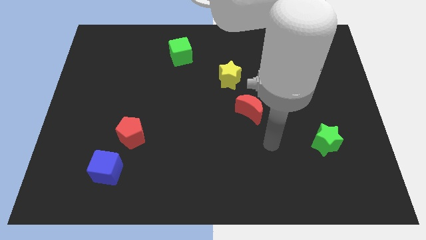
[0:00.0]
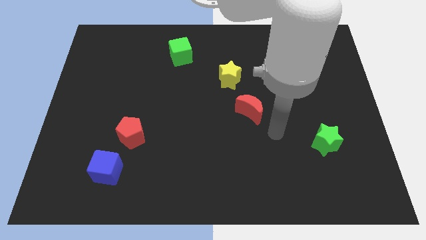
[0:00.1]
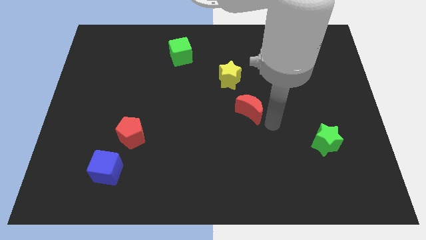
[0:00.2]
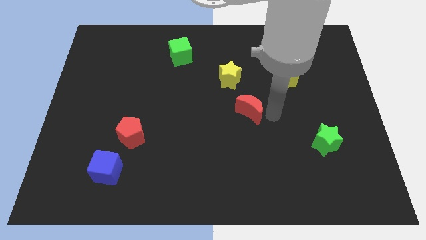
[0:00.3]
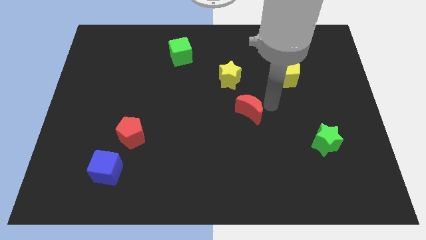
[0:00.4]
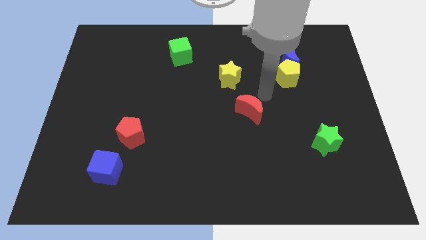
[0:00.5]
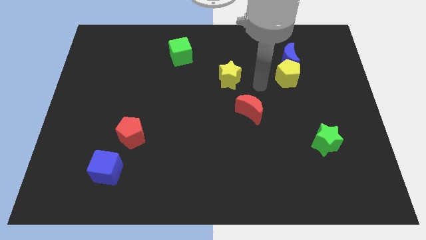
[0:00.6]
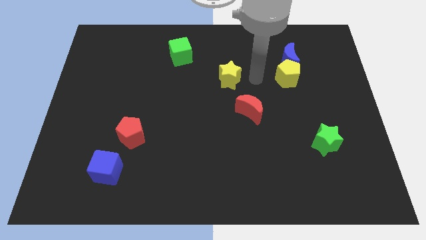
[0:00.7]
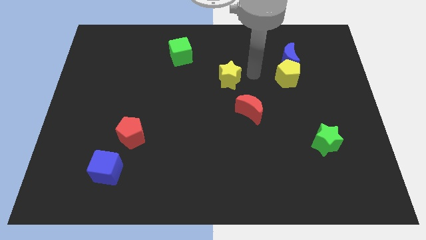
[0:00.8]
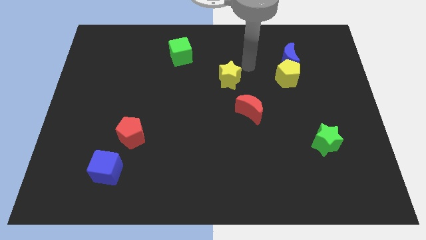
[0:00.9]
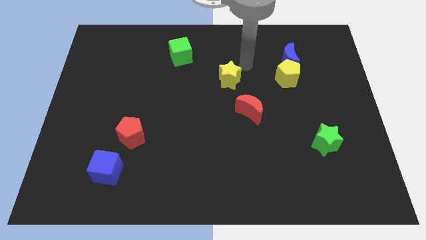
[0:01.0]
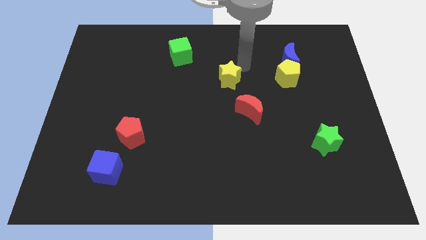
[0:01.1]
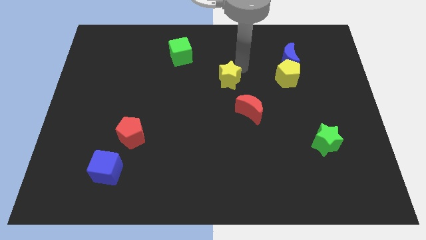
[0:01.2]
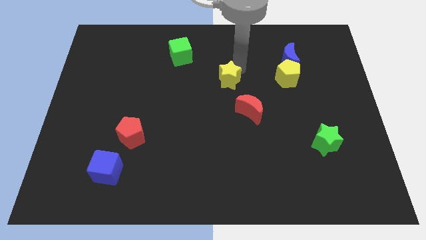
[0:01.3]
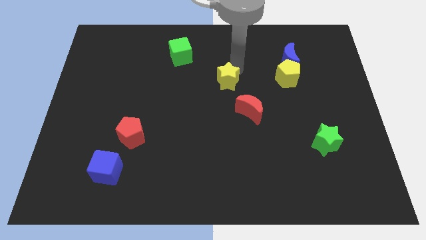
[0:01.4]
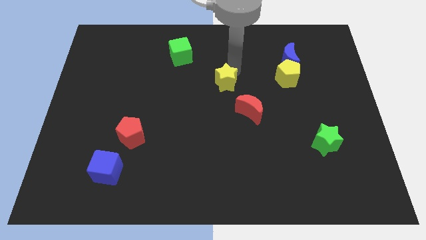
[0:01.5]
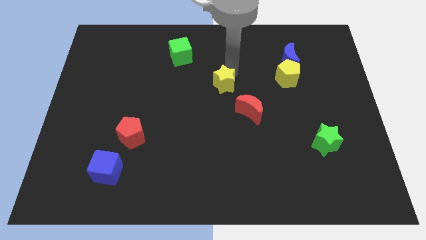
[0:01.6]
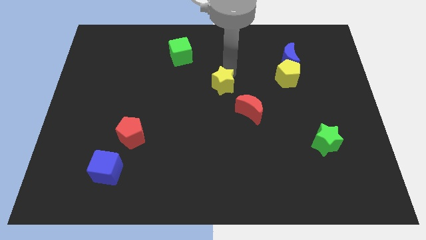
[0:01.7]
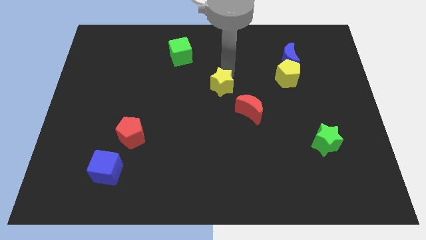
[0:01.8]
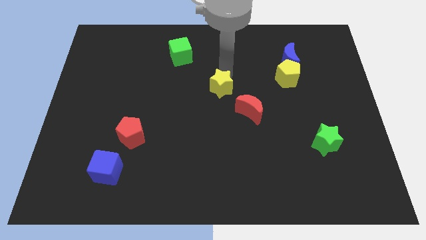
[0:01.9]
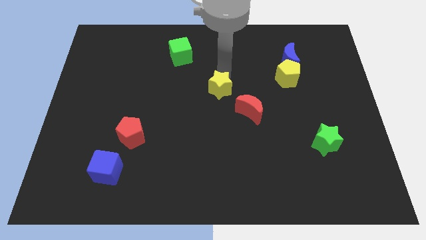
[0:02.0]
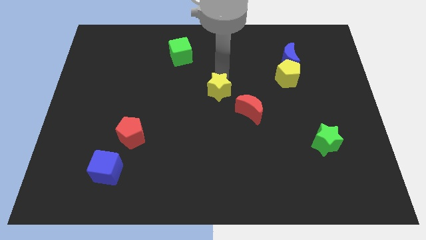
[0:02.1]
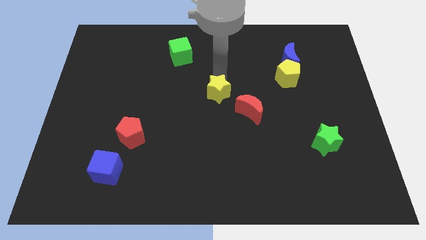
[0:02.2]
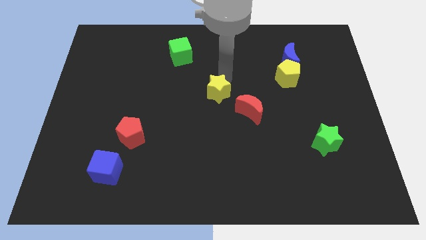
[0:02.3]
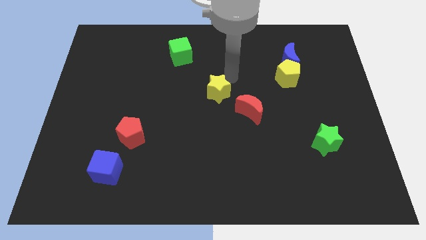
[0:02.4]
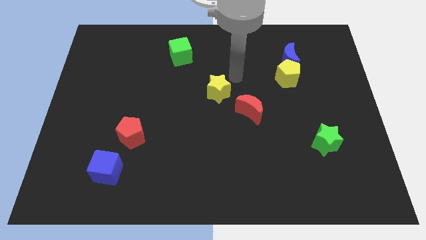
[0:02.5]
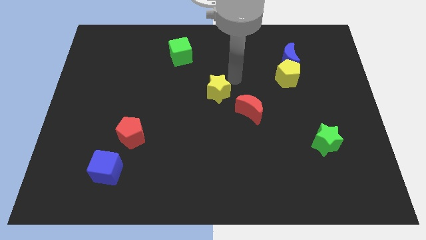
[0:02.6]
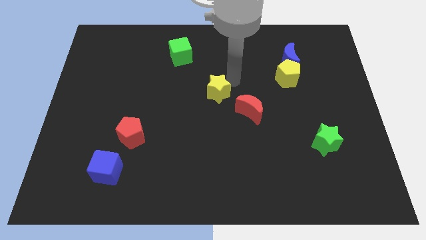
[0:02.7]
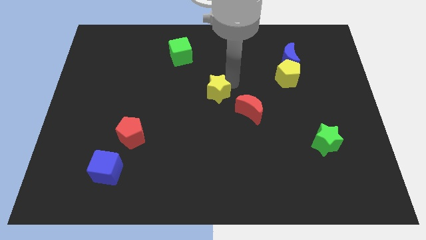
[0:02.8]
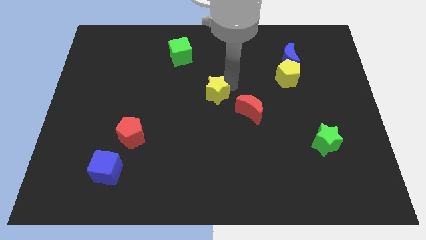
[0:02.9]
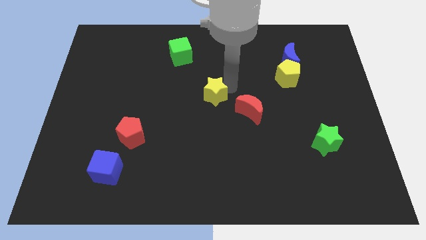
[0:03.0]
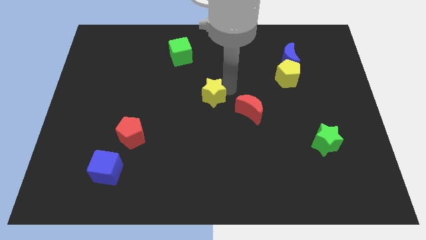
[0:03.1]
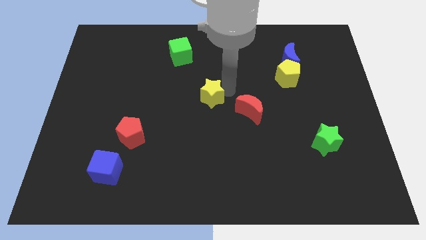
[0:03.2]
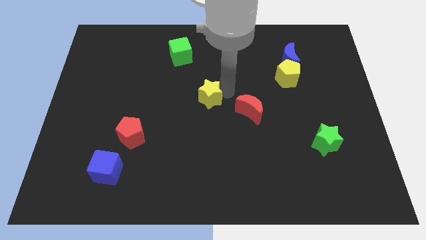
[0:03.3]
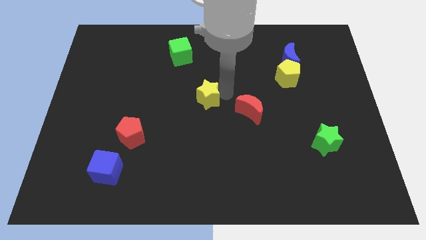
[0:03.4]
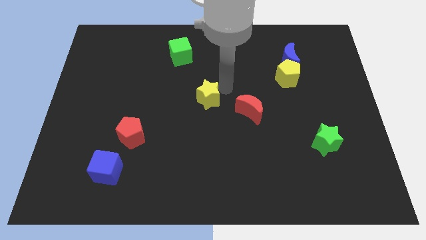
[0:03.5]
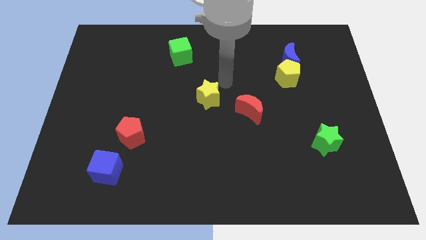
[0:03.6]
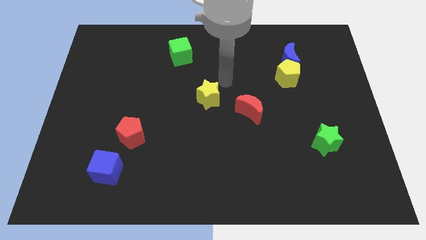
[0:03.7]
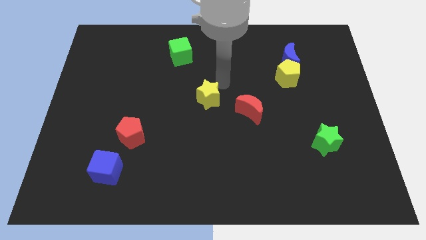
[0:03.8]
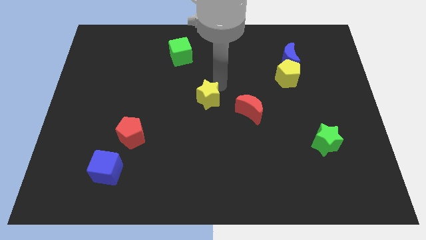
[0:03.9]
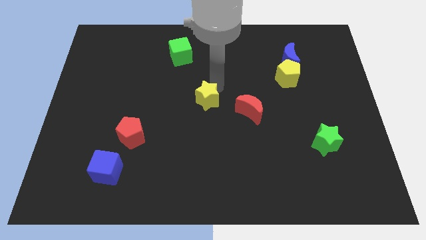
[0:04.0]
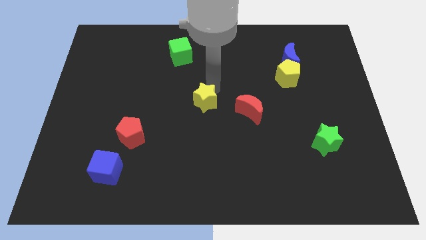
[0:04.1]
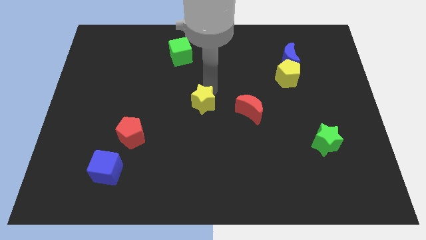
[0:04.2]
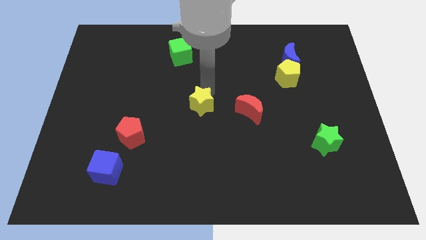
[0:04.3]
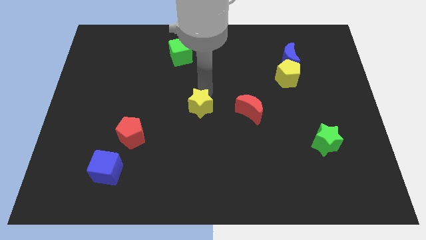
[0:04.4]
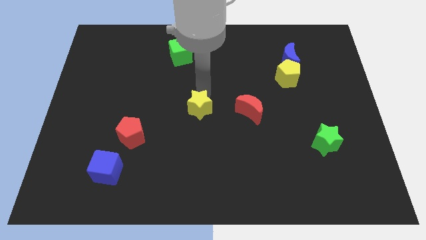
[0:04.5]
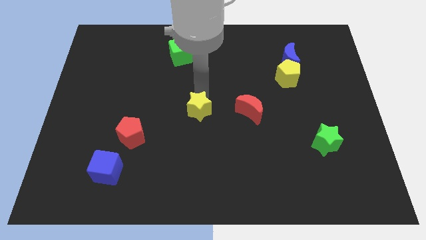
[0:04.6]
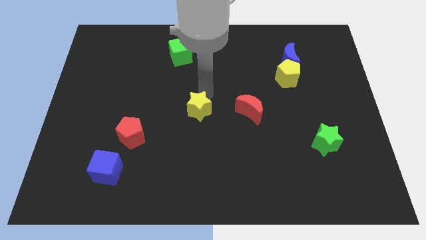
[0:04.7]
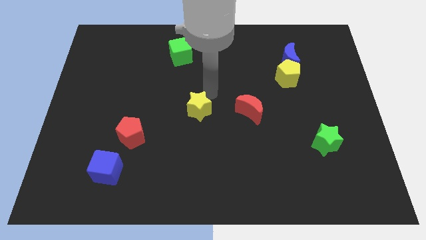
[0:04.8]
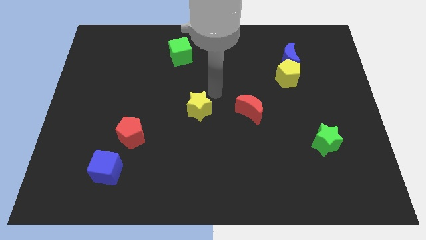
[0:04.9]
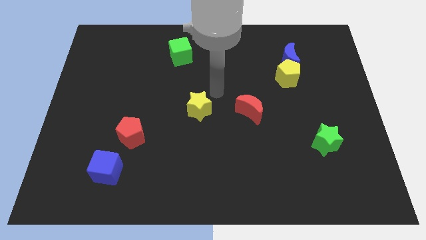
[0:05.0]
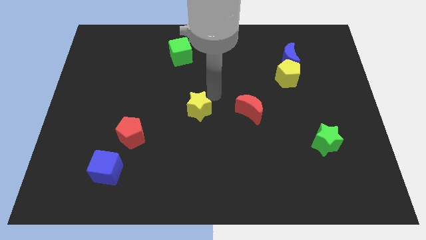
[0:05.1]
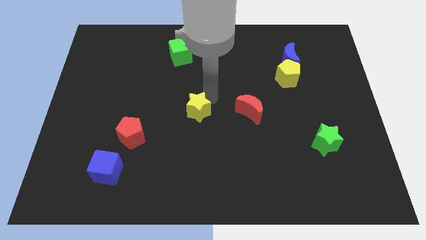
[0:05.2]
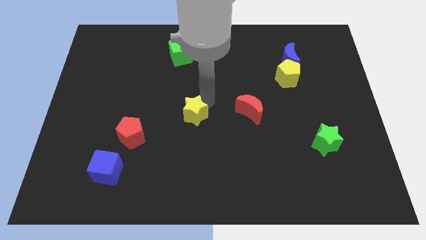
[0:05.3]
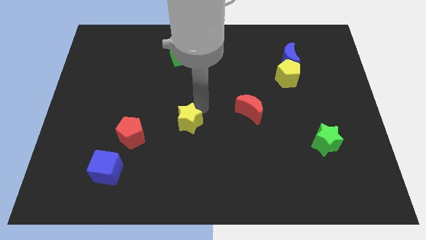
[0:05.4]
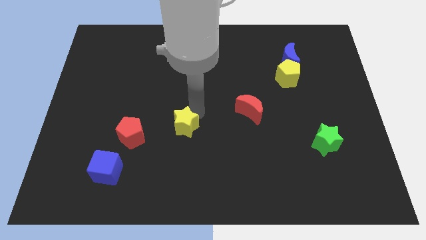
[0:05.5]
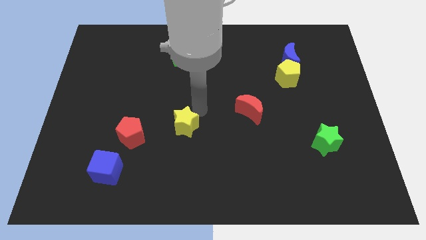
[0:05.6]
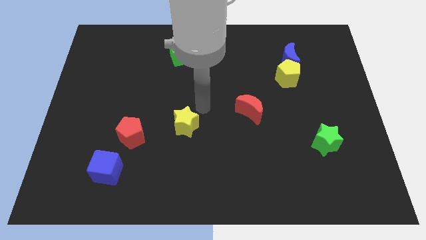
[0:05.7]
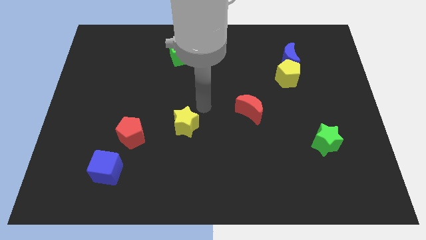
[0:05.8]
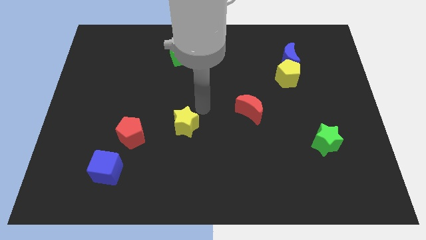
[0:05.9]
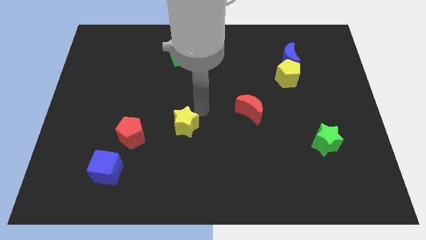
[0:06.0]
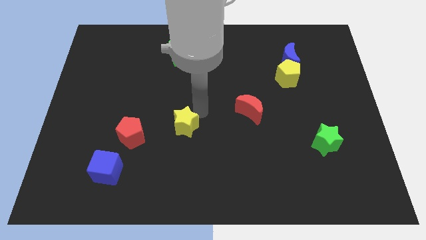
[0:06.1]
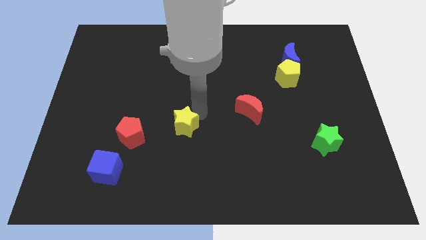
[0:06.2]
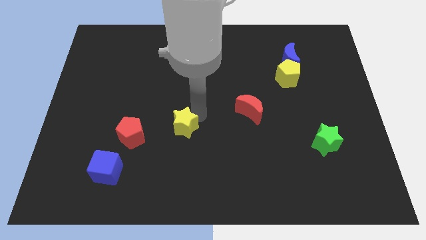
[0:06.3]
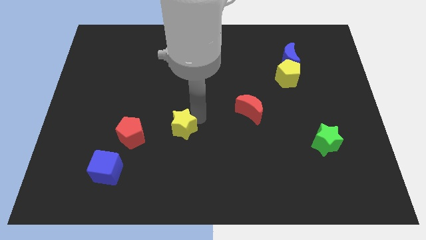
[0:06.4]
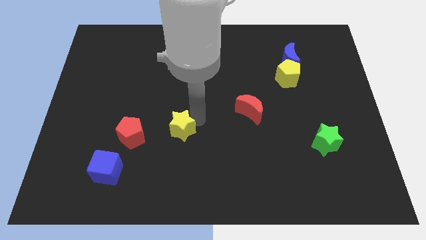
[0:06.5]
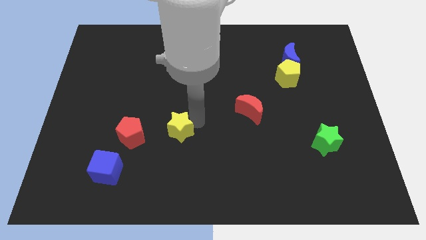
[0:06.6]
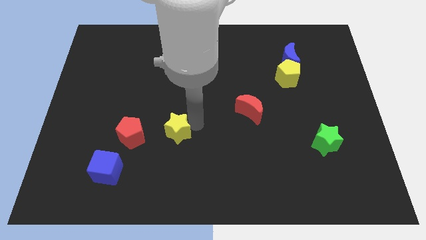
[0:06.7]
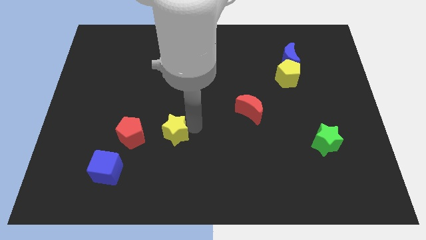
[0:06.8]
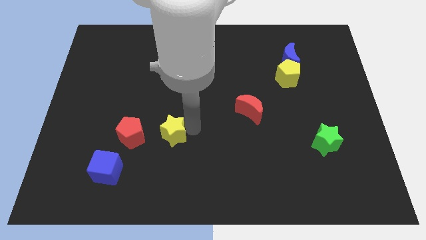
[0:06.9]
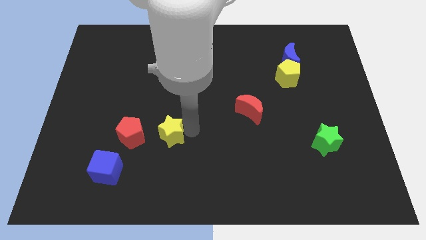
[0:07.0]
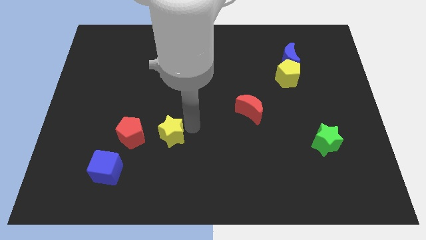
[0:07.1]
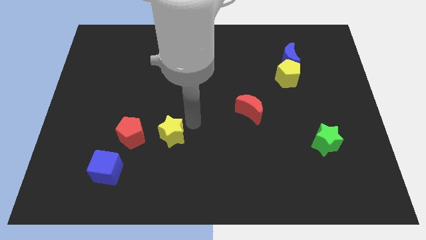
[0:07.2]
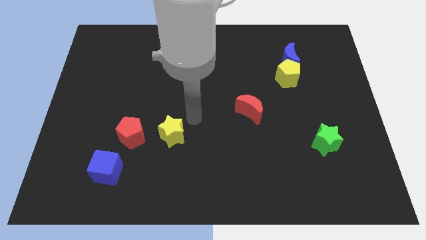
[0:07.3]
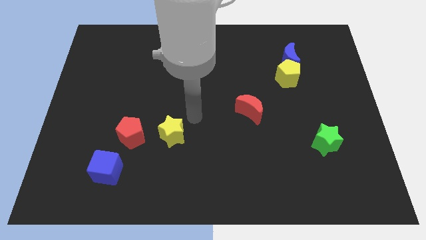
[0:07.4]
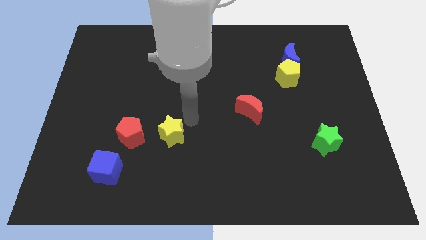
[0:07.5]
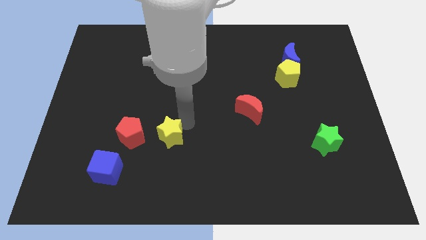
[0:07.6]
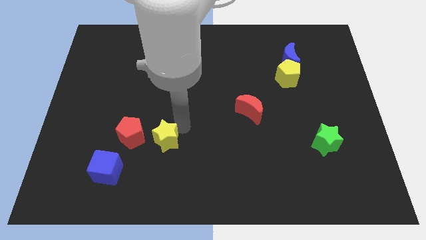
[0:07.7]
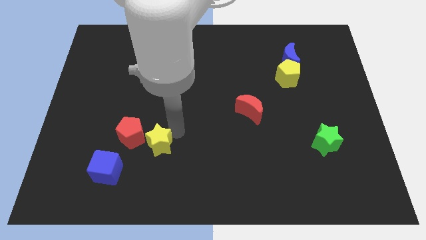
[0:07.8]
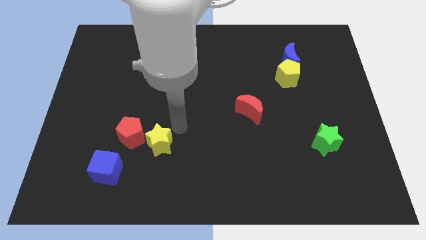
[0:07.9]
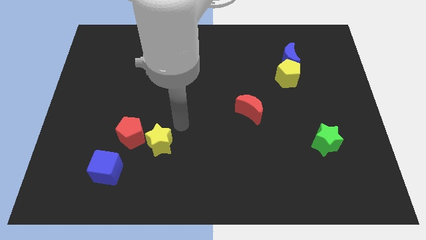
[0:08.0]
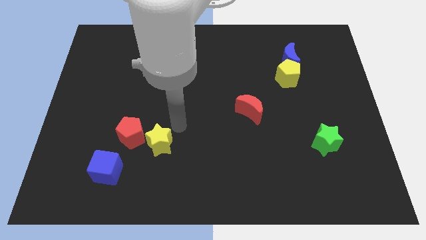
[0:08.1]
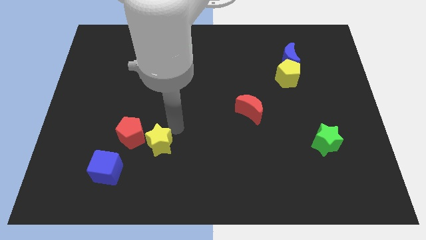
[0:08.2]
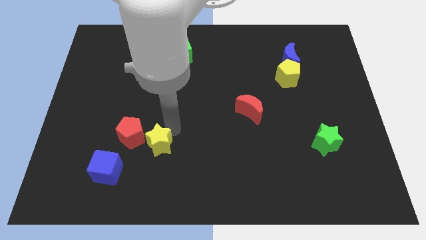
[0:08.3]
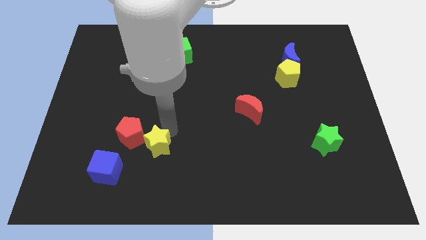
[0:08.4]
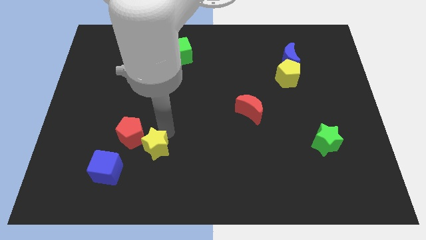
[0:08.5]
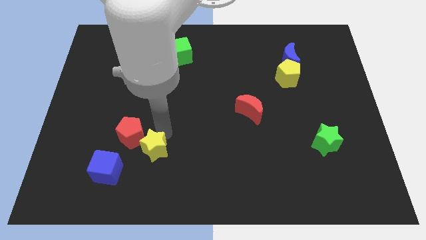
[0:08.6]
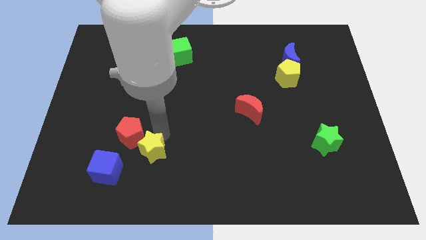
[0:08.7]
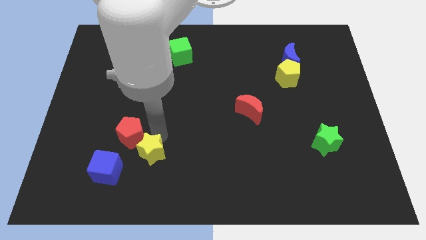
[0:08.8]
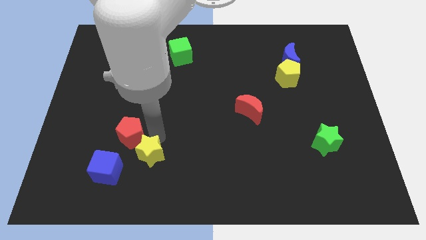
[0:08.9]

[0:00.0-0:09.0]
put the yellow star to the bottom side of the red pentagon
